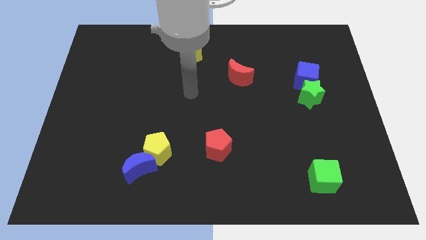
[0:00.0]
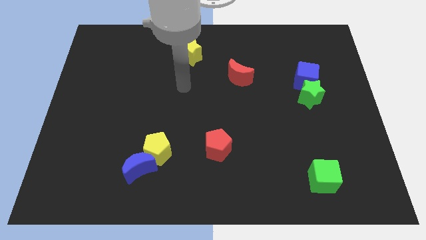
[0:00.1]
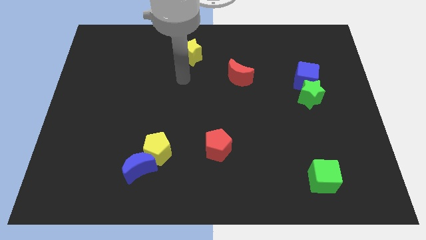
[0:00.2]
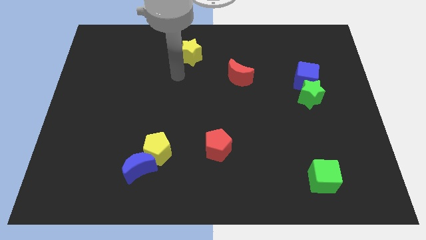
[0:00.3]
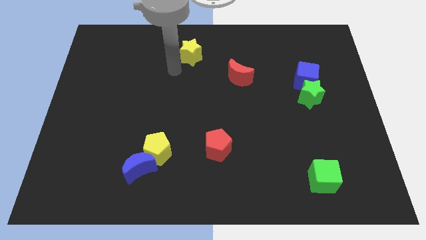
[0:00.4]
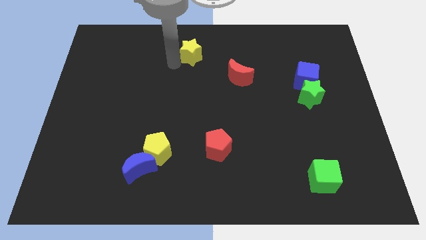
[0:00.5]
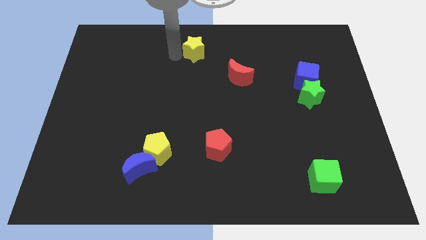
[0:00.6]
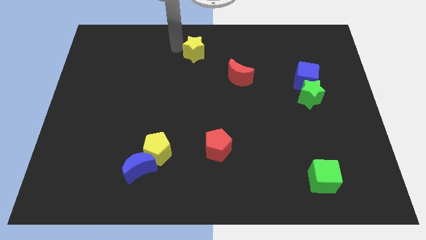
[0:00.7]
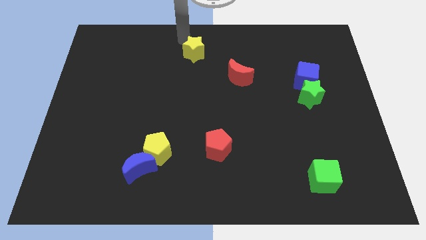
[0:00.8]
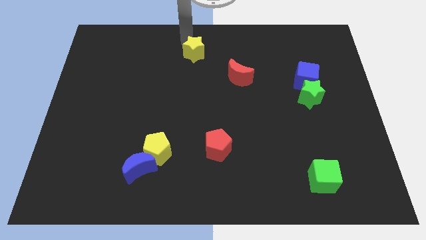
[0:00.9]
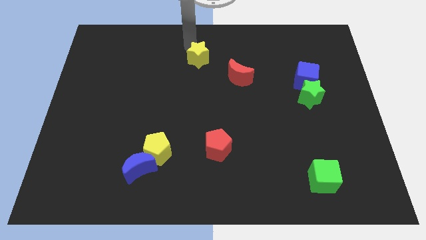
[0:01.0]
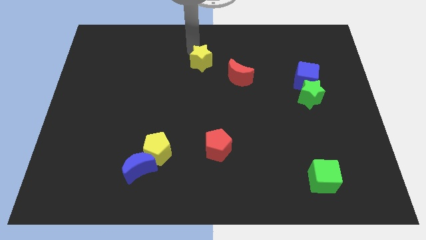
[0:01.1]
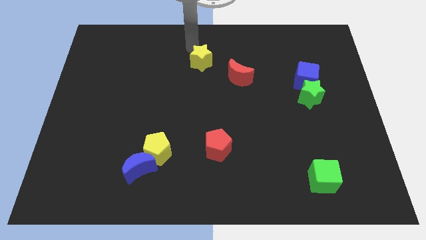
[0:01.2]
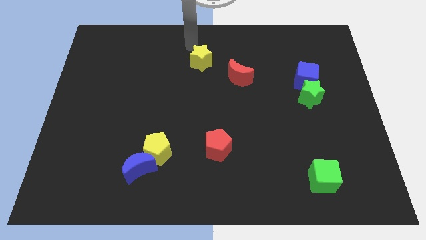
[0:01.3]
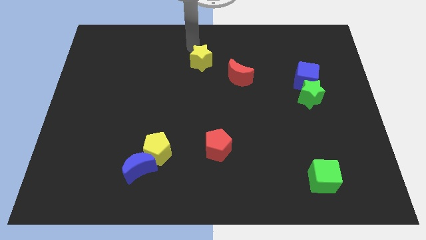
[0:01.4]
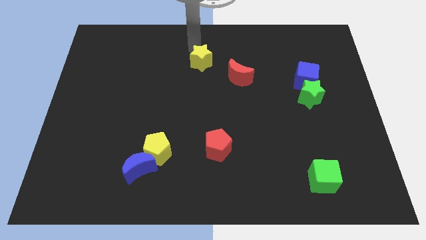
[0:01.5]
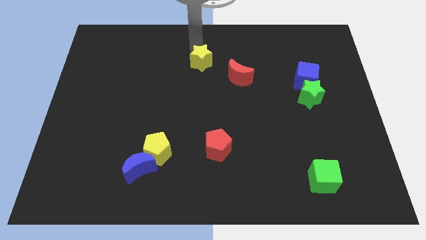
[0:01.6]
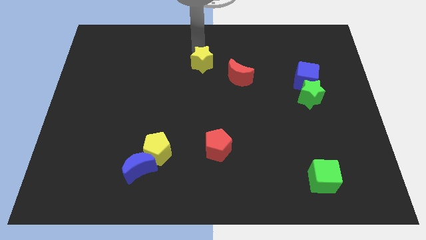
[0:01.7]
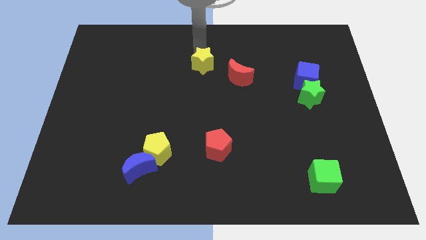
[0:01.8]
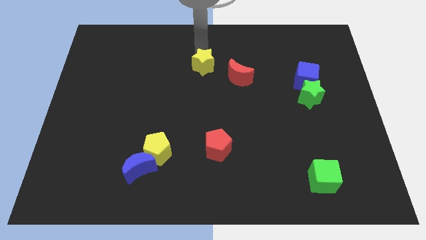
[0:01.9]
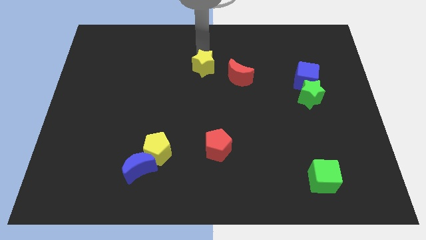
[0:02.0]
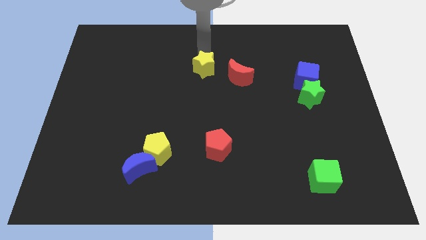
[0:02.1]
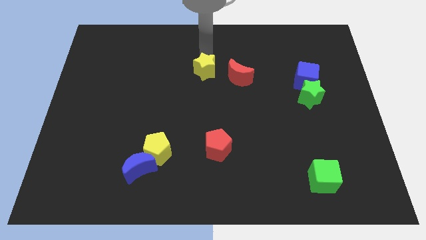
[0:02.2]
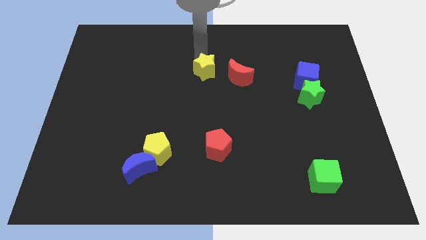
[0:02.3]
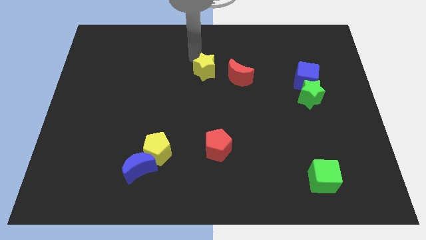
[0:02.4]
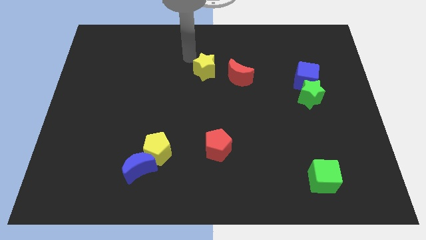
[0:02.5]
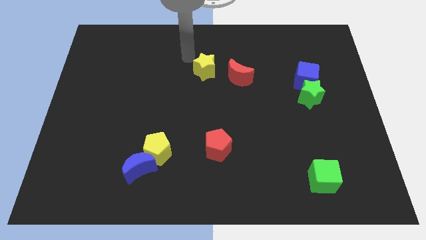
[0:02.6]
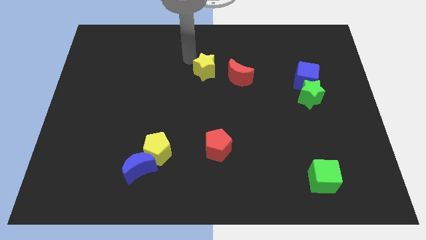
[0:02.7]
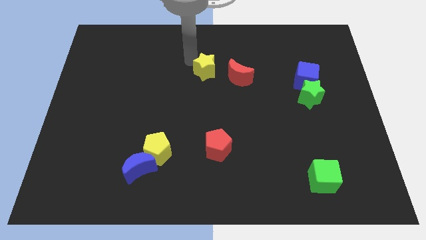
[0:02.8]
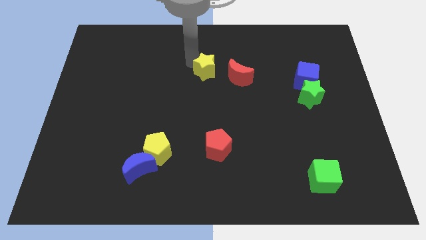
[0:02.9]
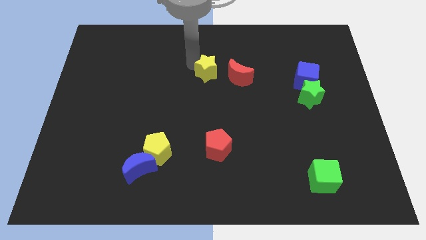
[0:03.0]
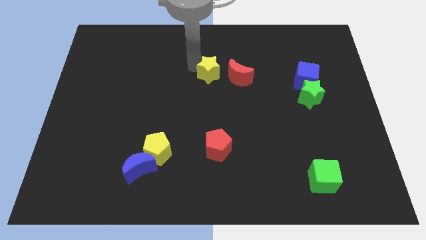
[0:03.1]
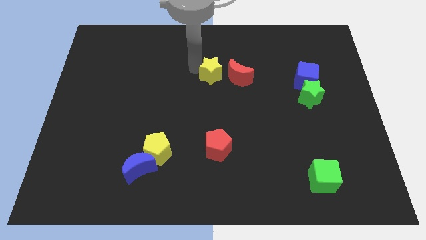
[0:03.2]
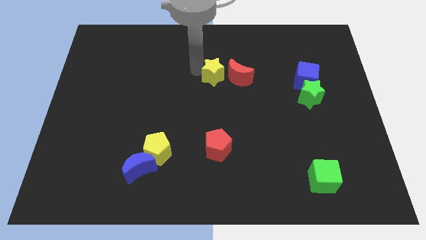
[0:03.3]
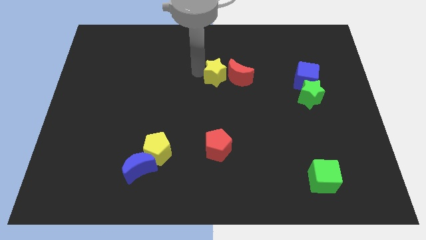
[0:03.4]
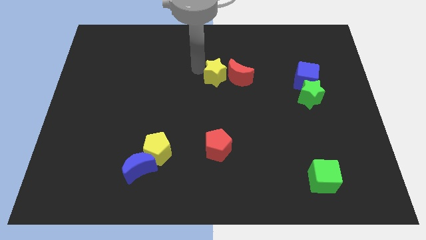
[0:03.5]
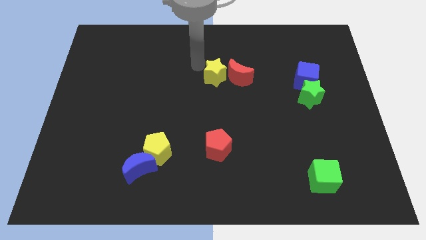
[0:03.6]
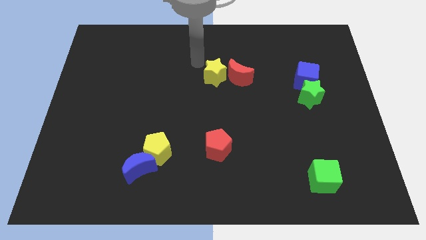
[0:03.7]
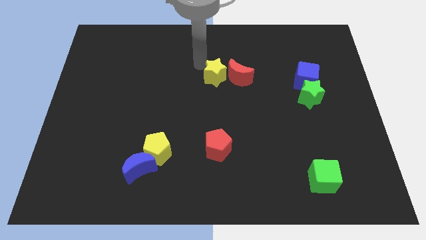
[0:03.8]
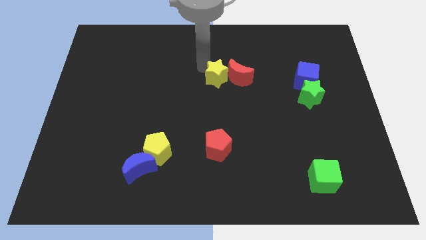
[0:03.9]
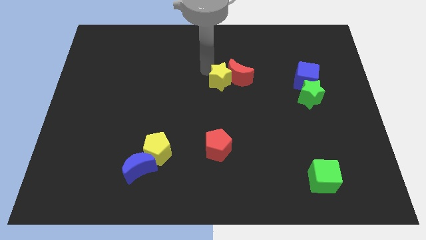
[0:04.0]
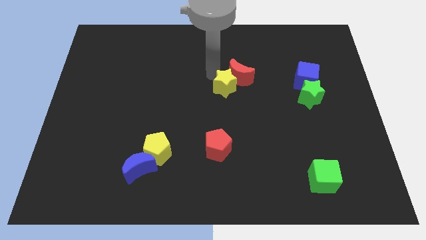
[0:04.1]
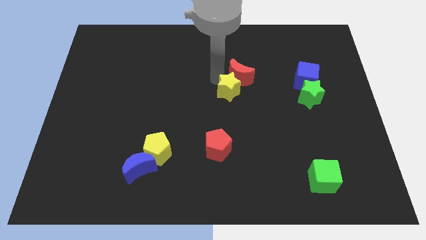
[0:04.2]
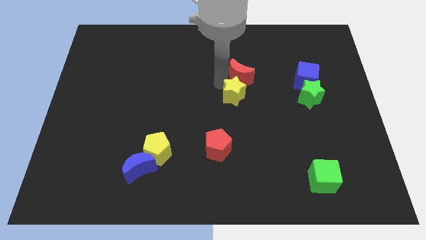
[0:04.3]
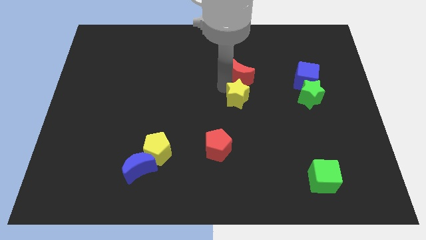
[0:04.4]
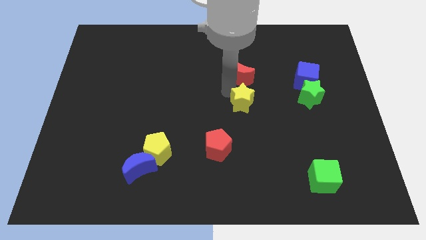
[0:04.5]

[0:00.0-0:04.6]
push the yellow star diagonally downwards and to the right

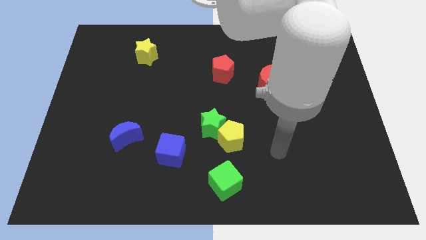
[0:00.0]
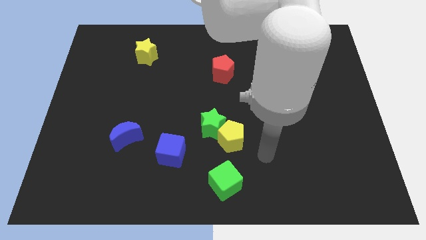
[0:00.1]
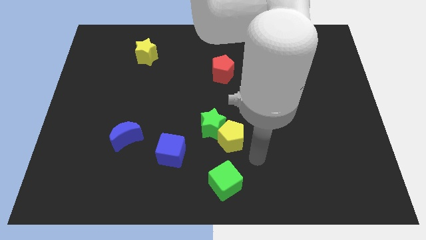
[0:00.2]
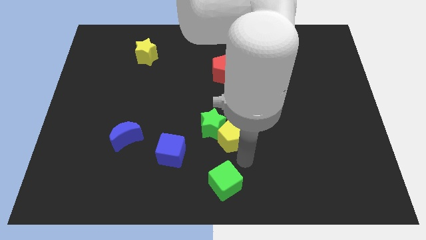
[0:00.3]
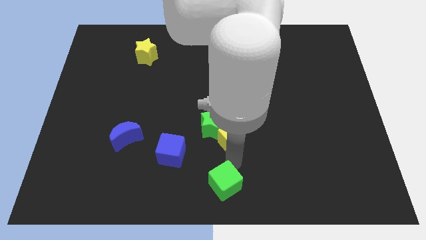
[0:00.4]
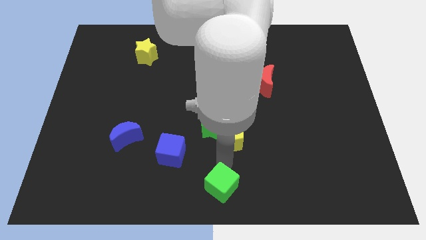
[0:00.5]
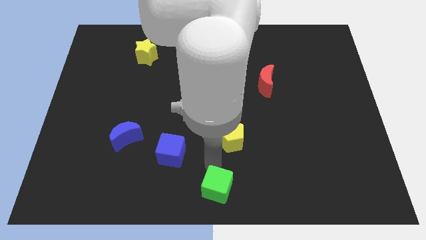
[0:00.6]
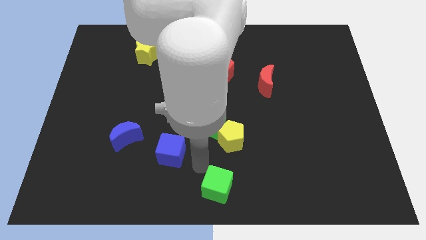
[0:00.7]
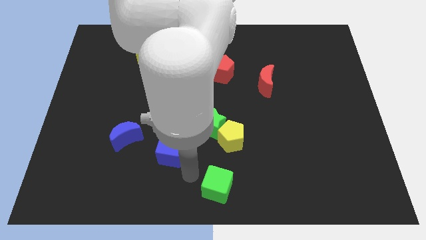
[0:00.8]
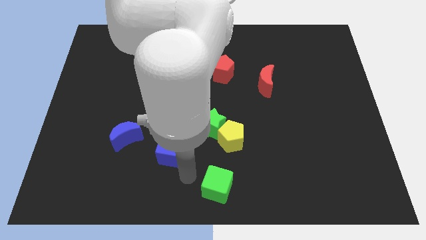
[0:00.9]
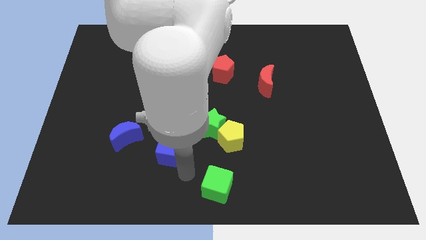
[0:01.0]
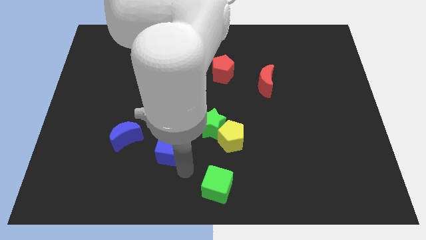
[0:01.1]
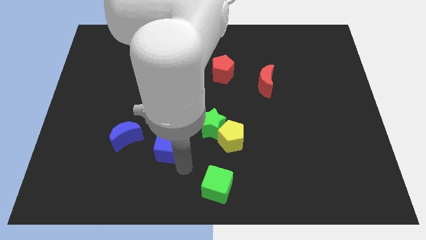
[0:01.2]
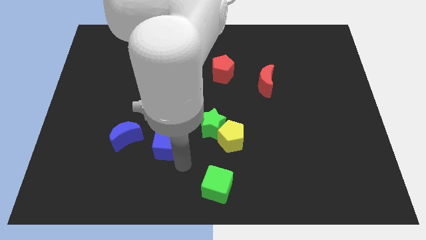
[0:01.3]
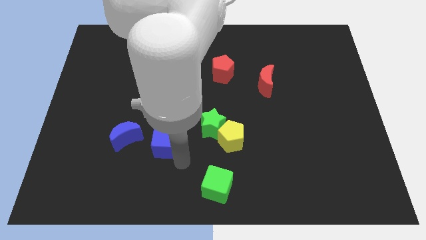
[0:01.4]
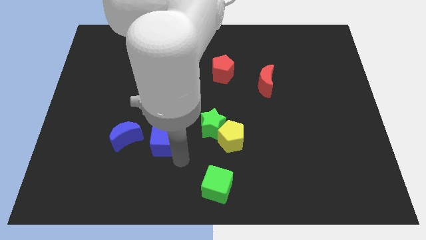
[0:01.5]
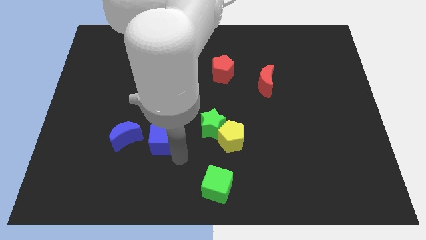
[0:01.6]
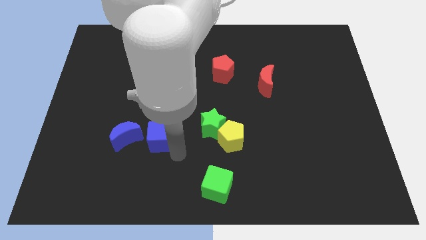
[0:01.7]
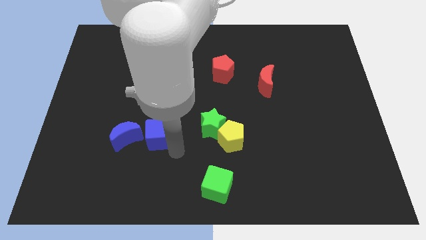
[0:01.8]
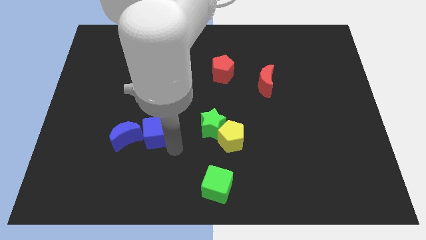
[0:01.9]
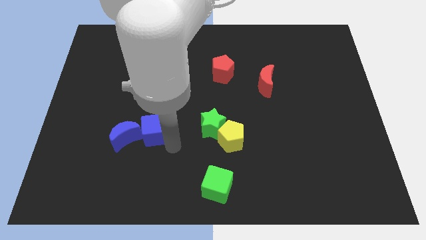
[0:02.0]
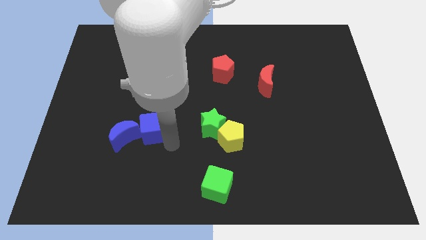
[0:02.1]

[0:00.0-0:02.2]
slightly push the blue cube up and then to the left

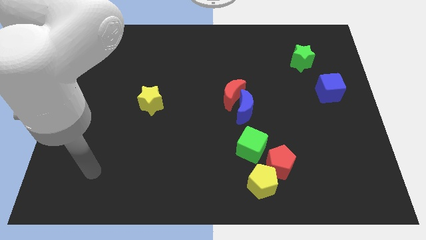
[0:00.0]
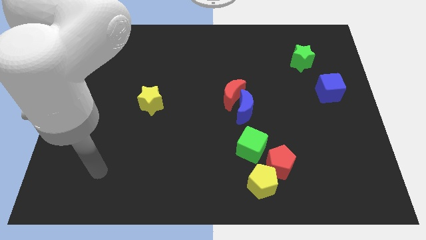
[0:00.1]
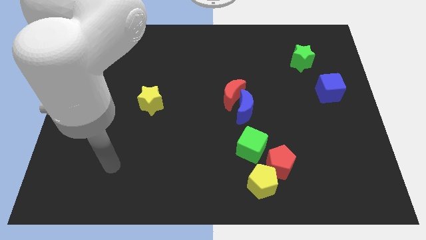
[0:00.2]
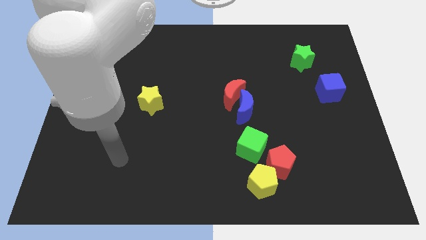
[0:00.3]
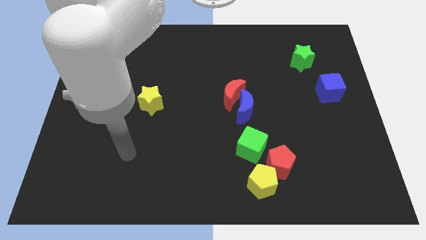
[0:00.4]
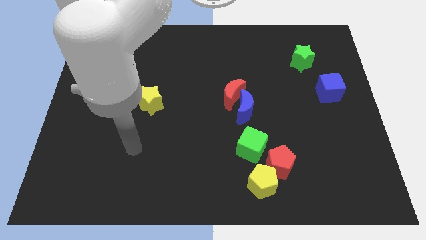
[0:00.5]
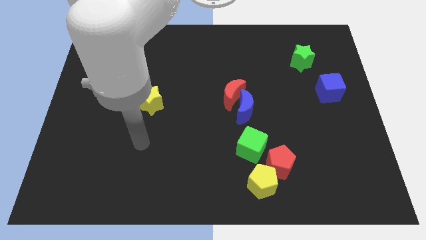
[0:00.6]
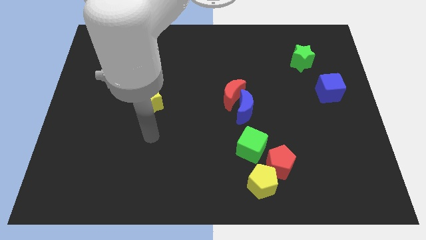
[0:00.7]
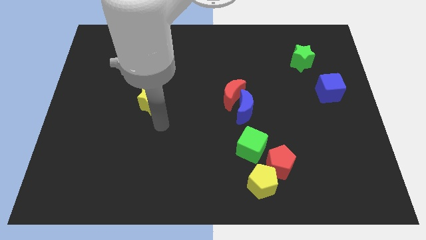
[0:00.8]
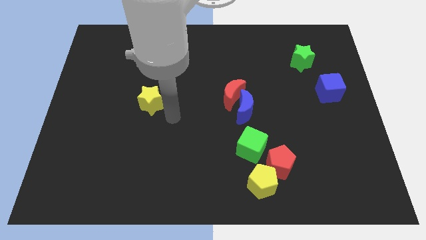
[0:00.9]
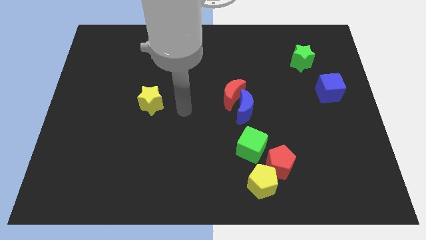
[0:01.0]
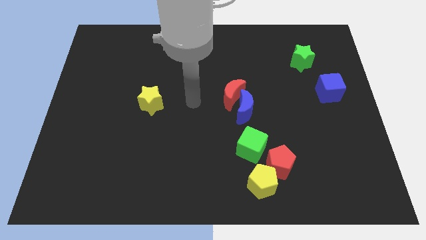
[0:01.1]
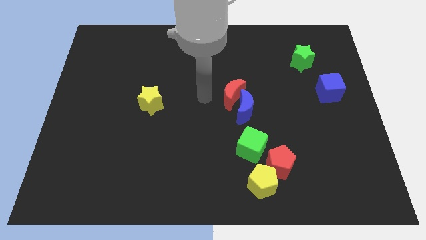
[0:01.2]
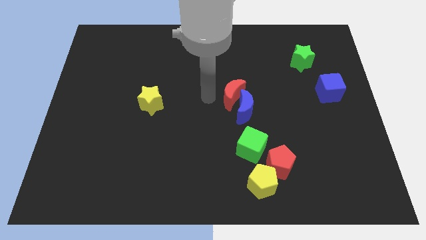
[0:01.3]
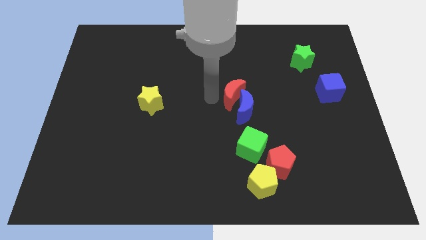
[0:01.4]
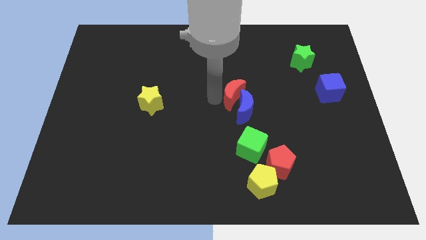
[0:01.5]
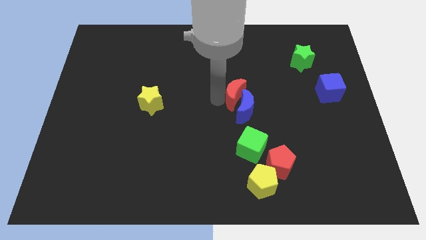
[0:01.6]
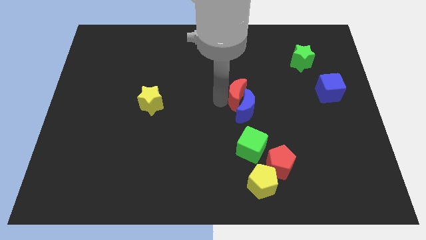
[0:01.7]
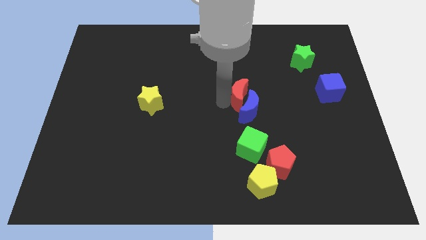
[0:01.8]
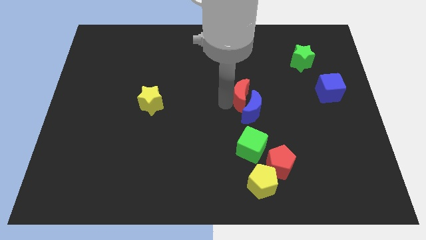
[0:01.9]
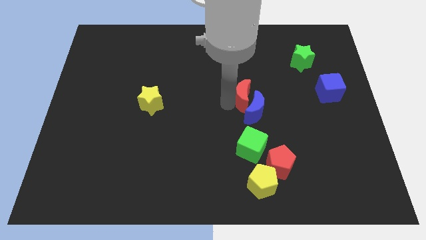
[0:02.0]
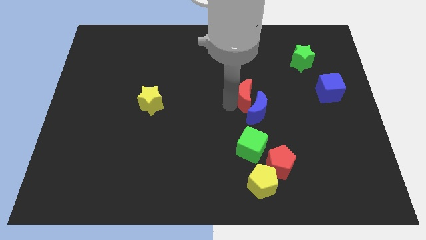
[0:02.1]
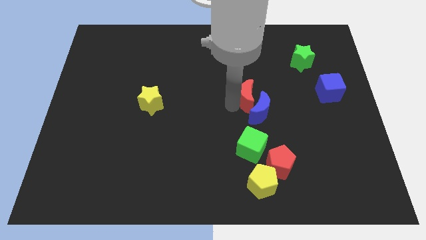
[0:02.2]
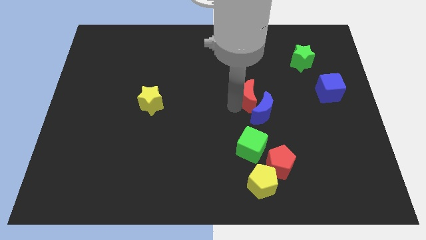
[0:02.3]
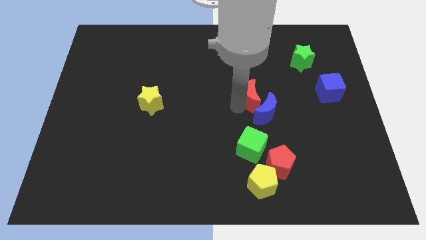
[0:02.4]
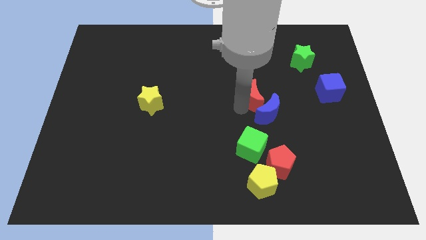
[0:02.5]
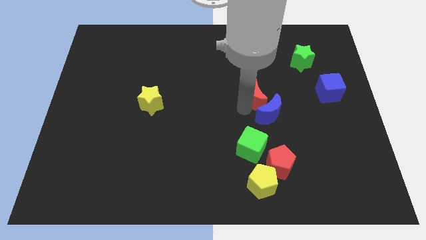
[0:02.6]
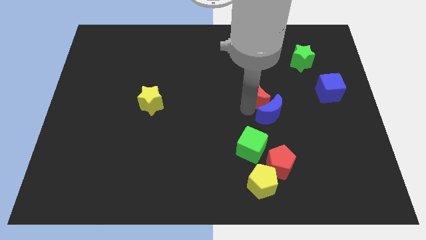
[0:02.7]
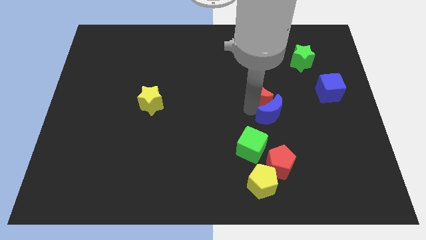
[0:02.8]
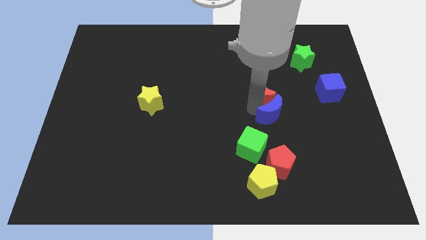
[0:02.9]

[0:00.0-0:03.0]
slightly slide the red moon to the right
